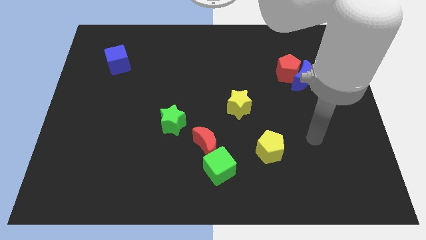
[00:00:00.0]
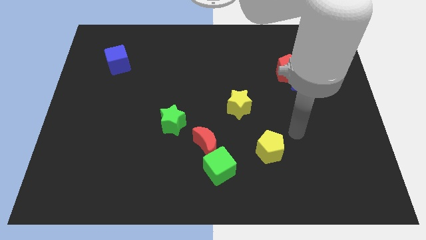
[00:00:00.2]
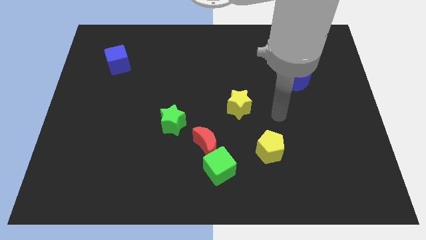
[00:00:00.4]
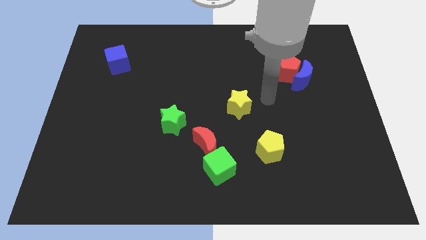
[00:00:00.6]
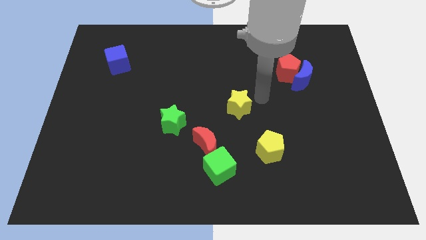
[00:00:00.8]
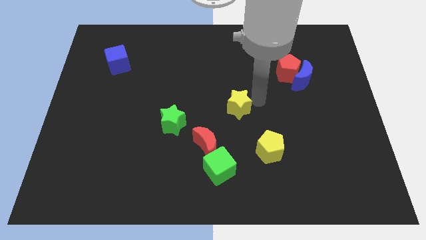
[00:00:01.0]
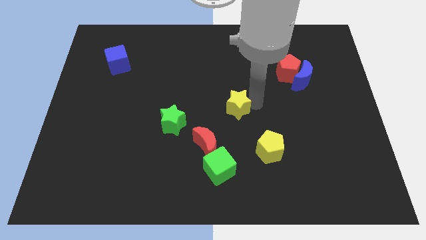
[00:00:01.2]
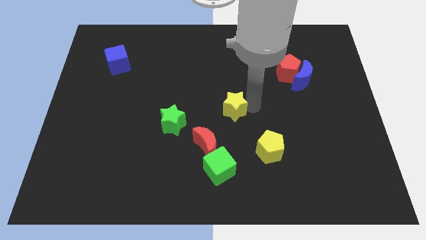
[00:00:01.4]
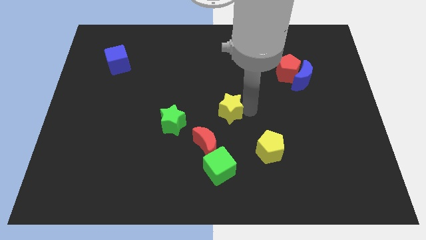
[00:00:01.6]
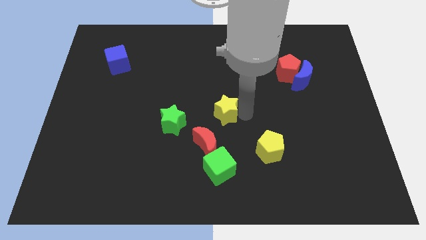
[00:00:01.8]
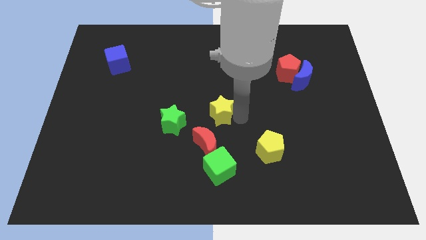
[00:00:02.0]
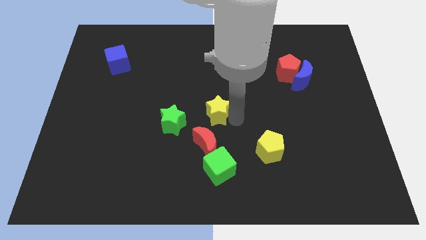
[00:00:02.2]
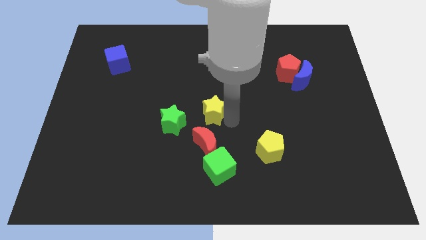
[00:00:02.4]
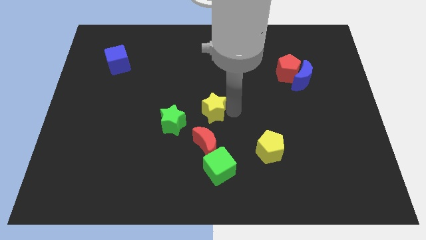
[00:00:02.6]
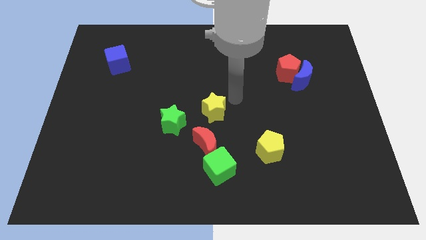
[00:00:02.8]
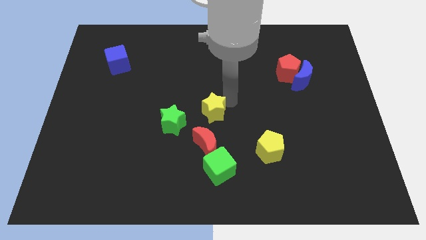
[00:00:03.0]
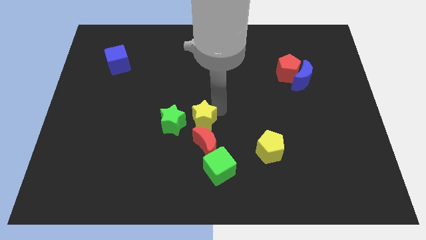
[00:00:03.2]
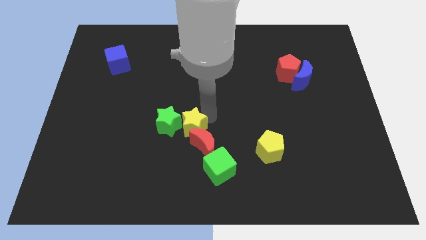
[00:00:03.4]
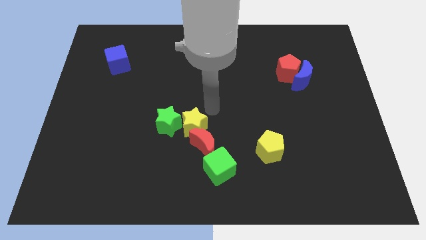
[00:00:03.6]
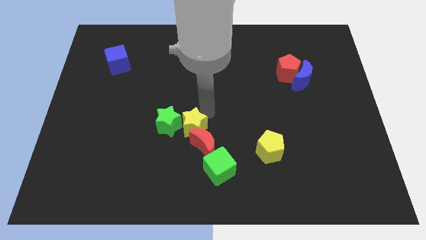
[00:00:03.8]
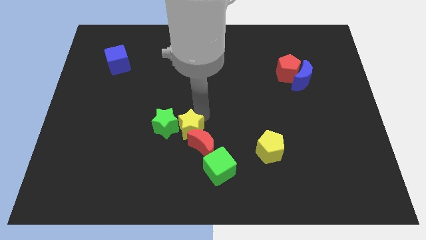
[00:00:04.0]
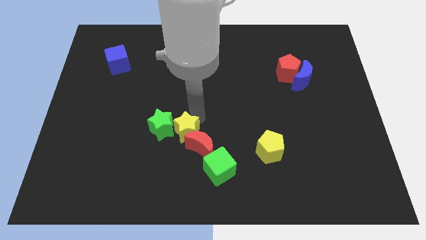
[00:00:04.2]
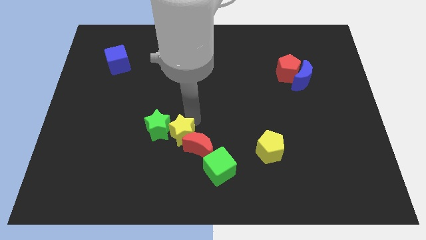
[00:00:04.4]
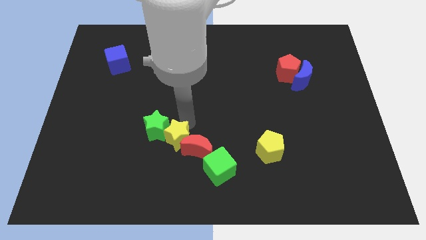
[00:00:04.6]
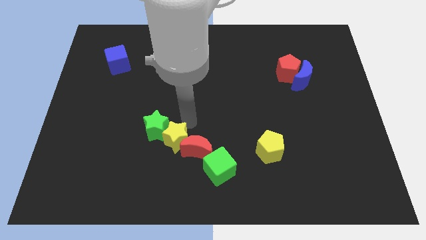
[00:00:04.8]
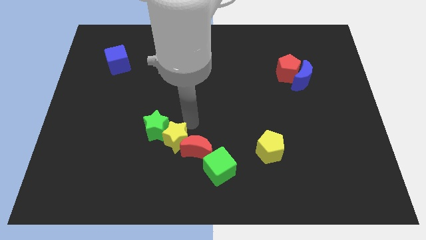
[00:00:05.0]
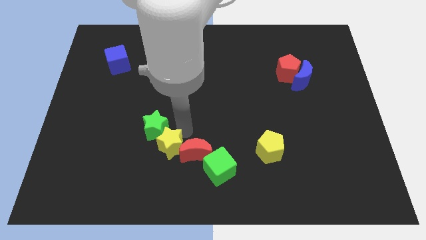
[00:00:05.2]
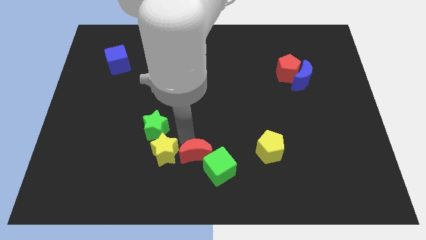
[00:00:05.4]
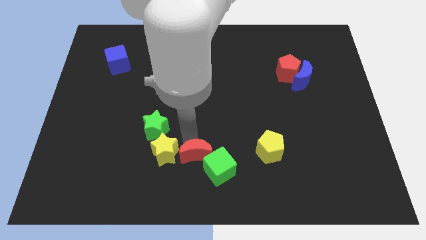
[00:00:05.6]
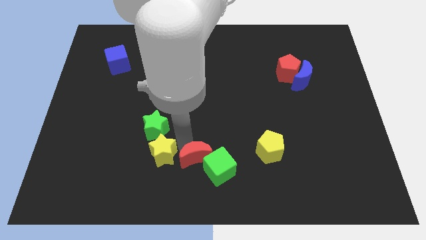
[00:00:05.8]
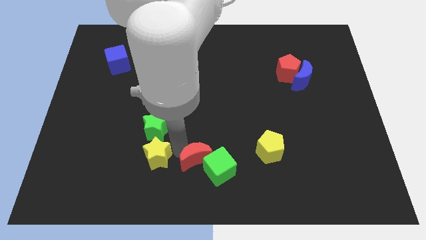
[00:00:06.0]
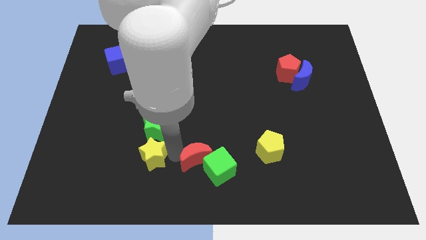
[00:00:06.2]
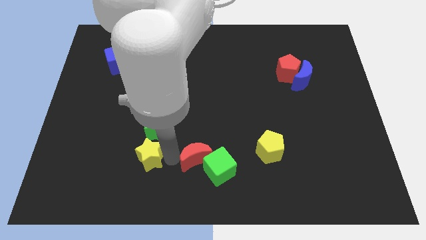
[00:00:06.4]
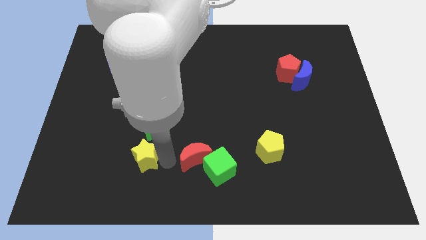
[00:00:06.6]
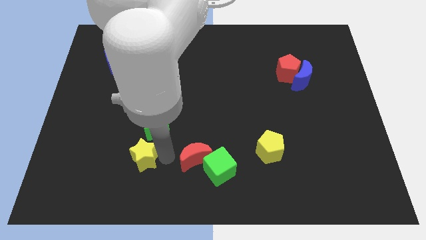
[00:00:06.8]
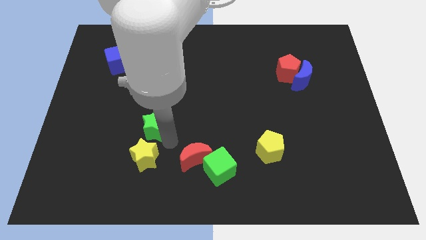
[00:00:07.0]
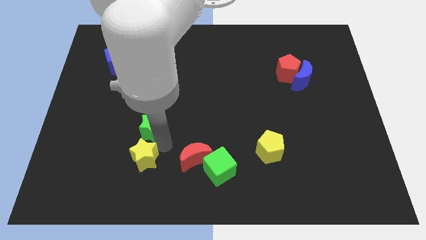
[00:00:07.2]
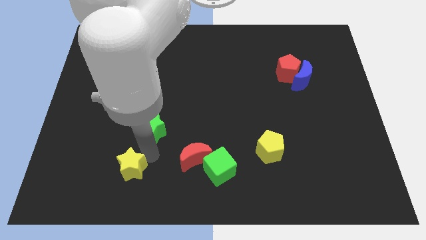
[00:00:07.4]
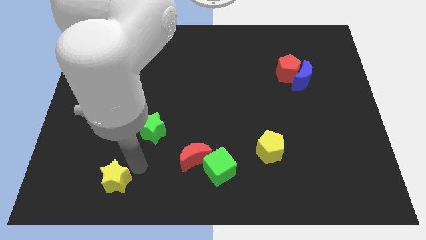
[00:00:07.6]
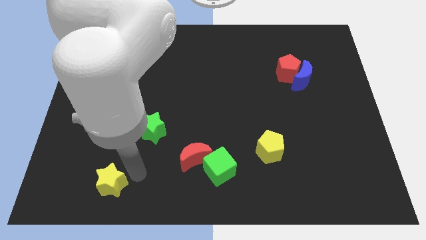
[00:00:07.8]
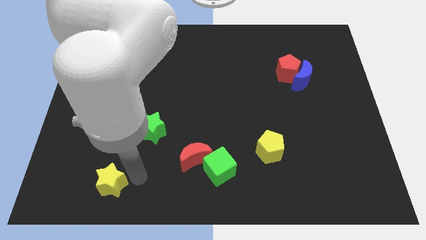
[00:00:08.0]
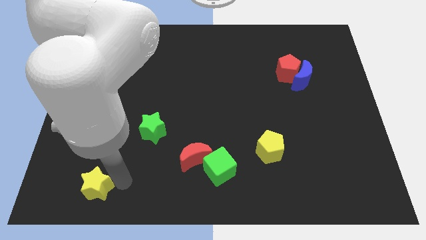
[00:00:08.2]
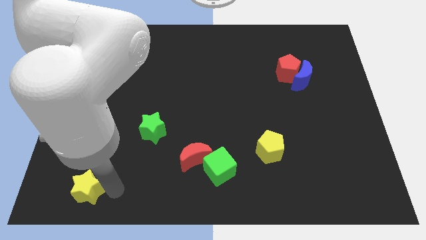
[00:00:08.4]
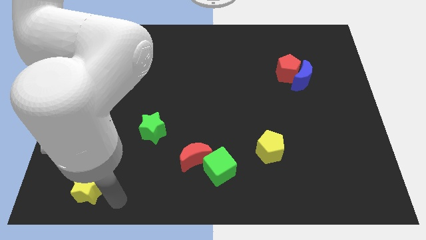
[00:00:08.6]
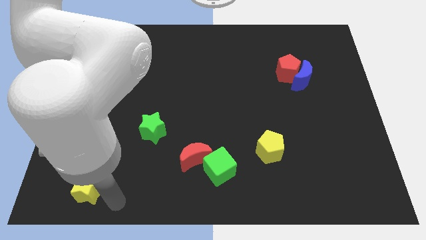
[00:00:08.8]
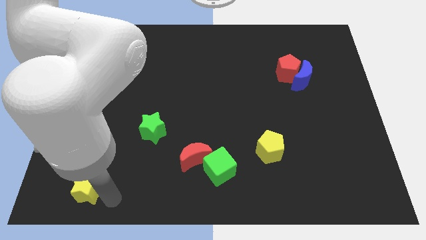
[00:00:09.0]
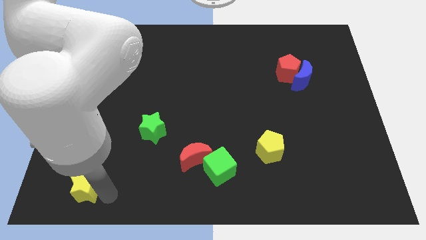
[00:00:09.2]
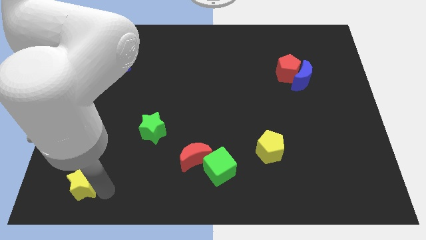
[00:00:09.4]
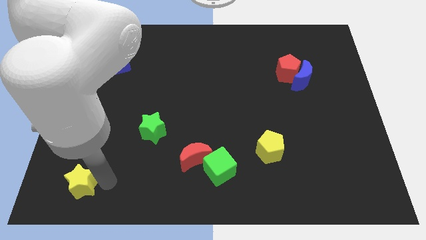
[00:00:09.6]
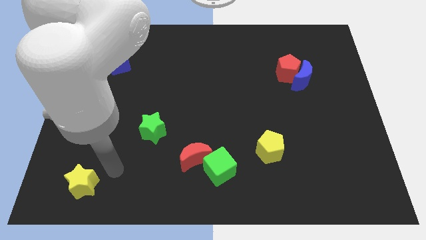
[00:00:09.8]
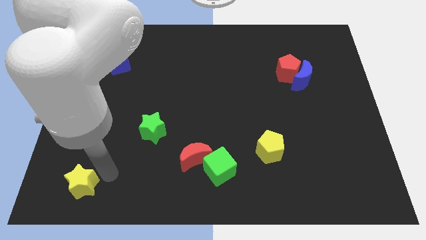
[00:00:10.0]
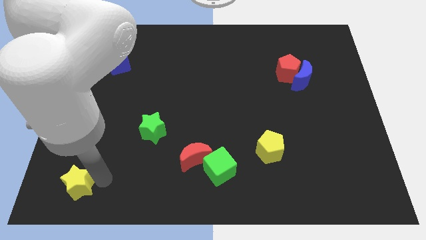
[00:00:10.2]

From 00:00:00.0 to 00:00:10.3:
put the yellow star to the bottom left of the board
